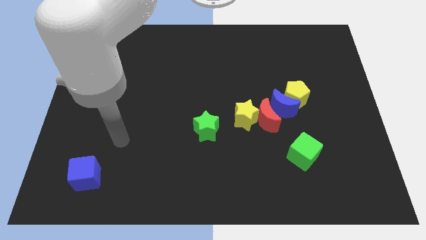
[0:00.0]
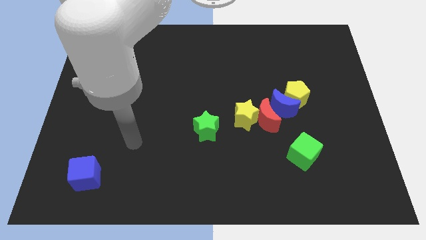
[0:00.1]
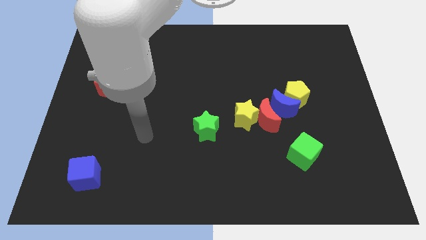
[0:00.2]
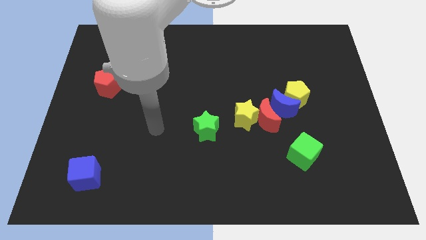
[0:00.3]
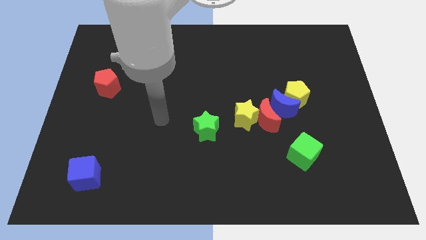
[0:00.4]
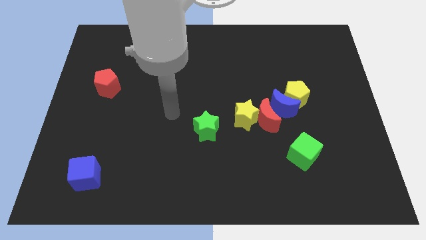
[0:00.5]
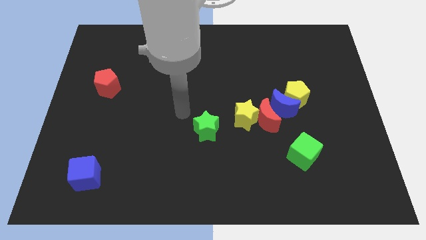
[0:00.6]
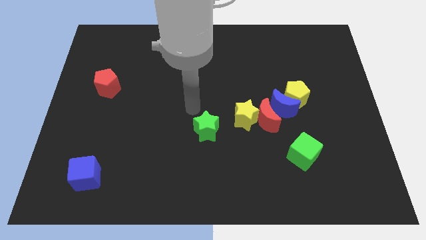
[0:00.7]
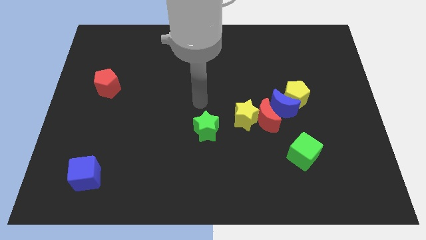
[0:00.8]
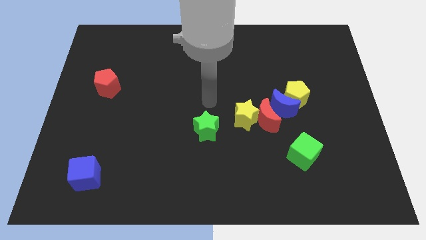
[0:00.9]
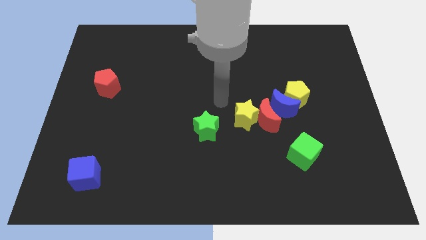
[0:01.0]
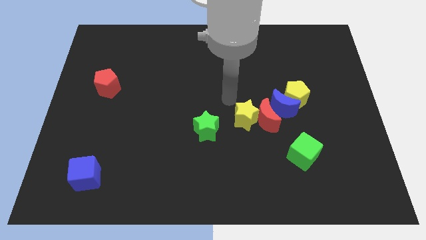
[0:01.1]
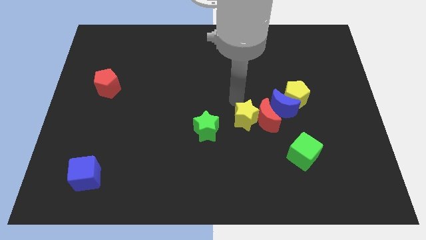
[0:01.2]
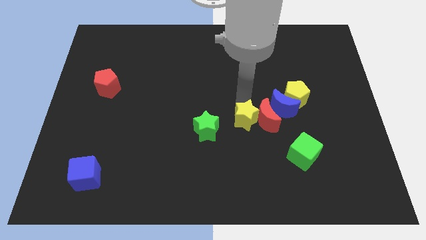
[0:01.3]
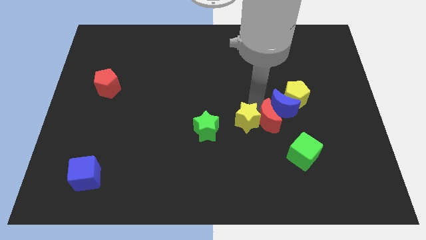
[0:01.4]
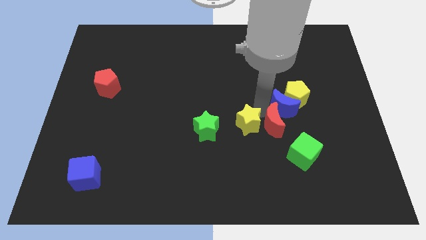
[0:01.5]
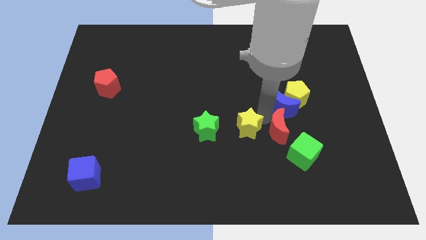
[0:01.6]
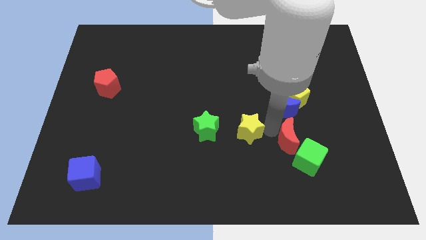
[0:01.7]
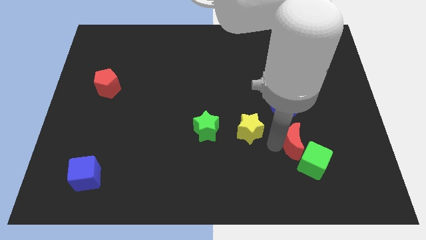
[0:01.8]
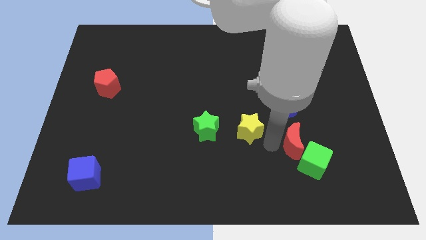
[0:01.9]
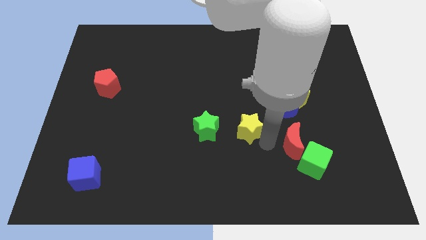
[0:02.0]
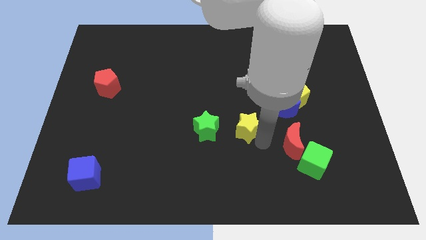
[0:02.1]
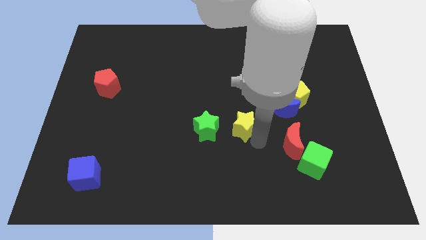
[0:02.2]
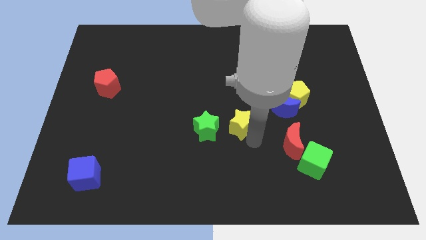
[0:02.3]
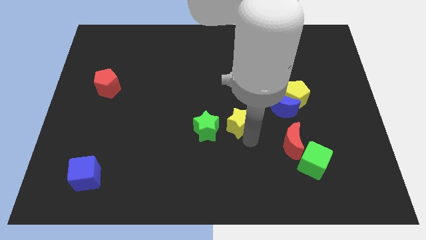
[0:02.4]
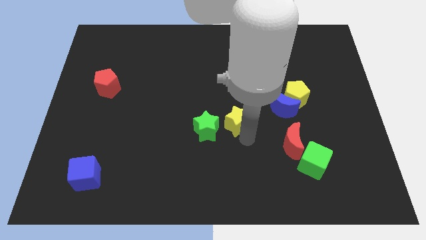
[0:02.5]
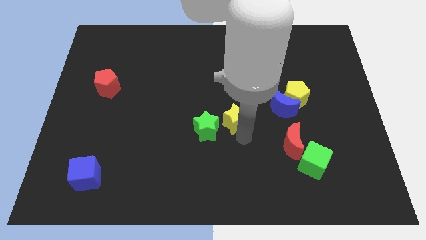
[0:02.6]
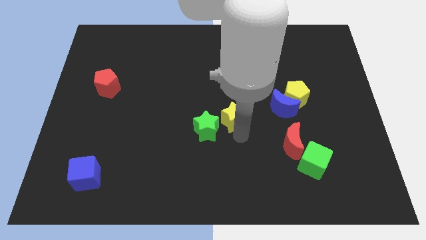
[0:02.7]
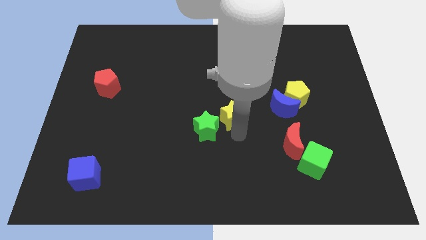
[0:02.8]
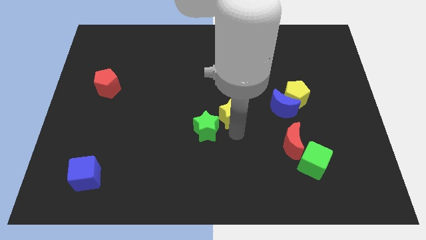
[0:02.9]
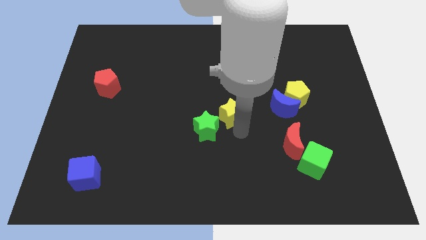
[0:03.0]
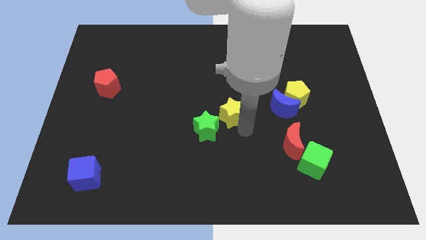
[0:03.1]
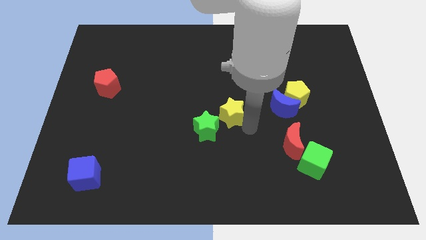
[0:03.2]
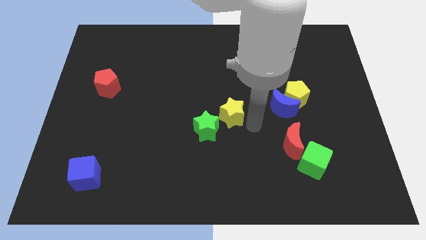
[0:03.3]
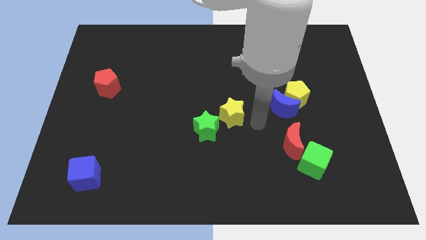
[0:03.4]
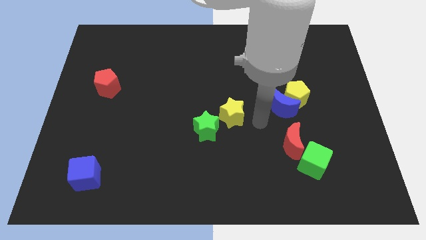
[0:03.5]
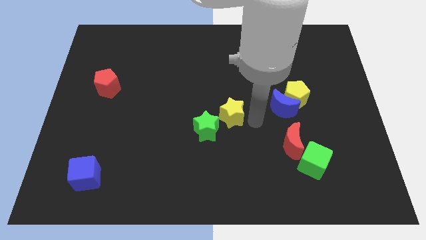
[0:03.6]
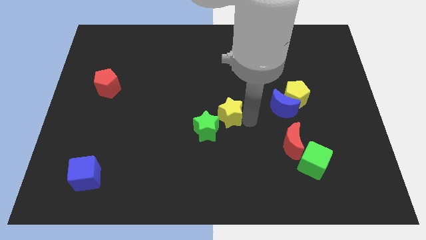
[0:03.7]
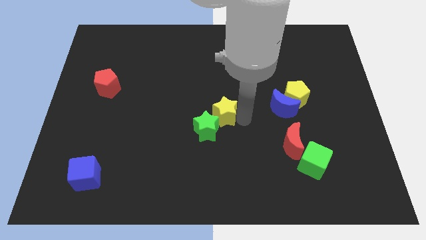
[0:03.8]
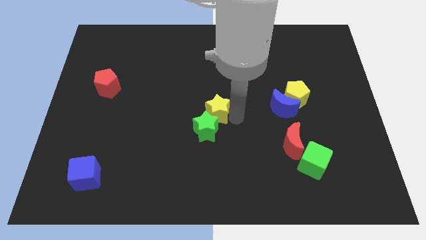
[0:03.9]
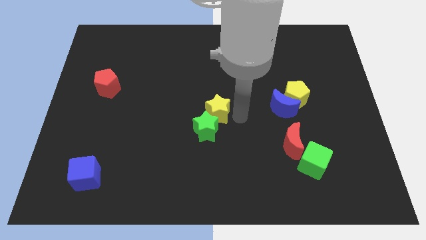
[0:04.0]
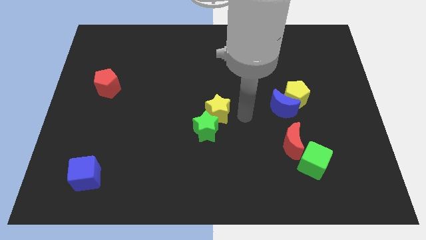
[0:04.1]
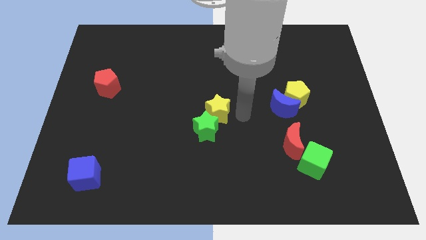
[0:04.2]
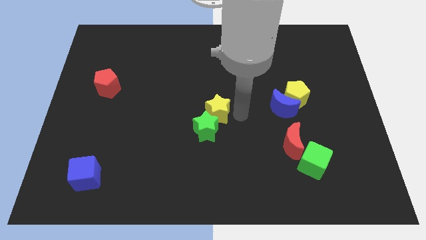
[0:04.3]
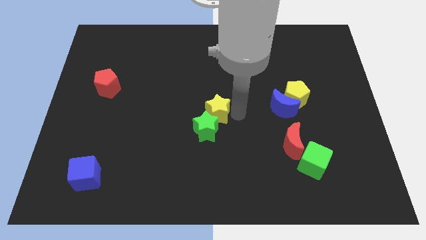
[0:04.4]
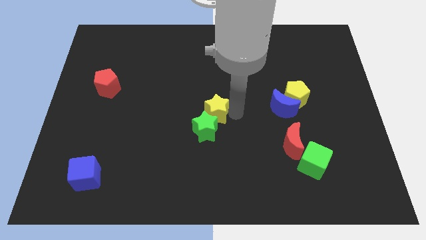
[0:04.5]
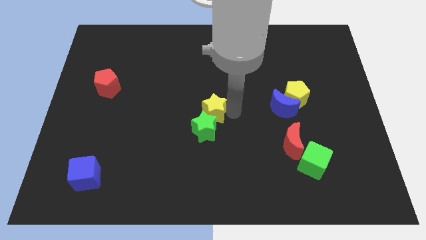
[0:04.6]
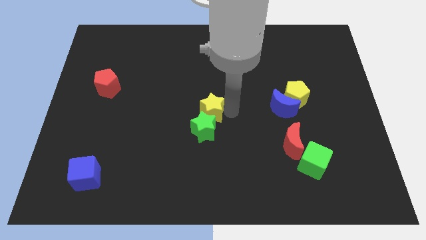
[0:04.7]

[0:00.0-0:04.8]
put the yellow star to the top left side of the green star

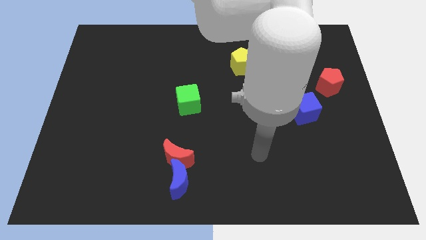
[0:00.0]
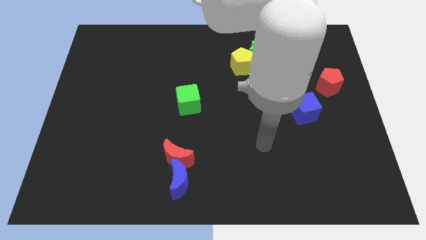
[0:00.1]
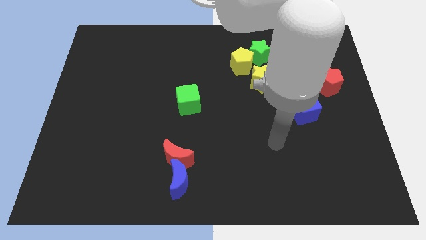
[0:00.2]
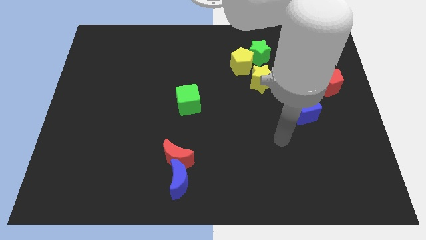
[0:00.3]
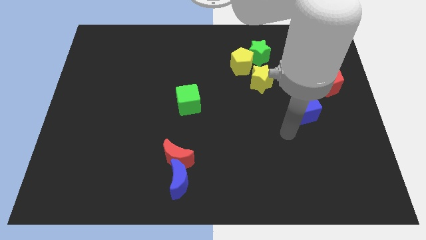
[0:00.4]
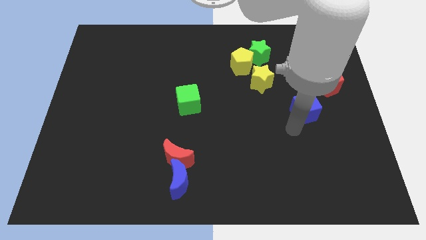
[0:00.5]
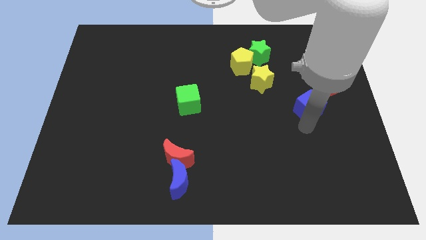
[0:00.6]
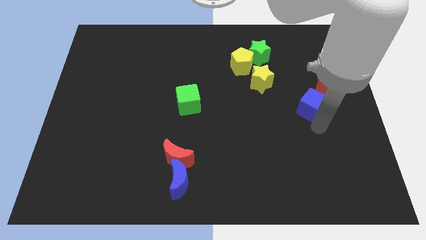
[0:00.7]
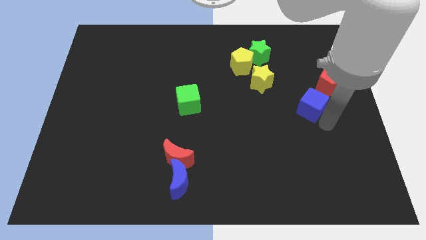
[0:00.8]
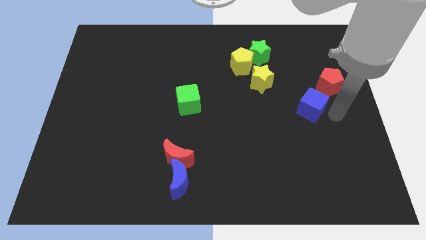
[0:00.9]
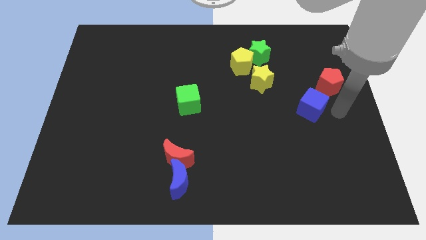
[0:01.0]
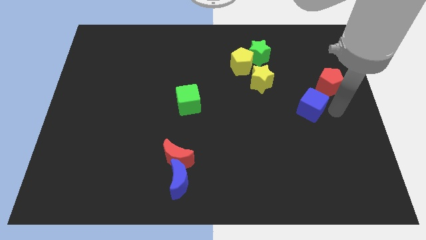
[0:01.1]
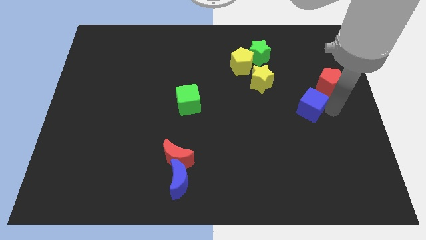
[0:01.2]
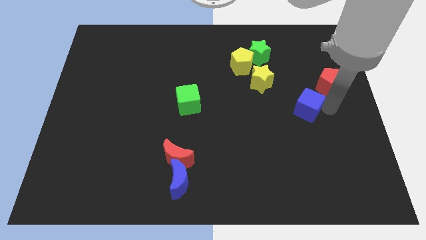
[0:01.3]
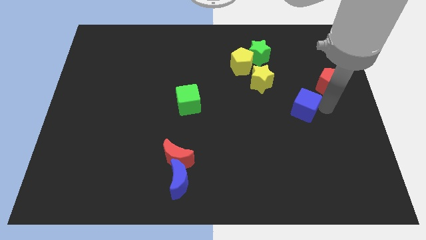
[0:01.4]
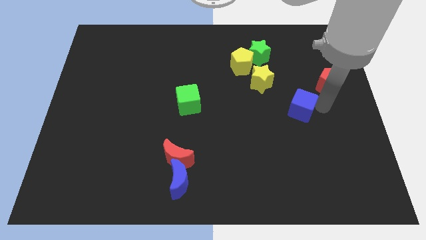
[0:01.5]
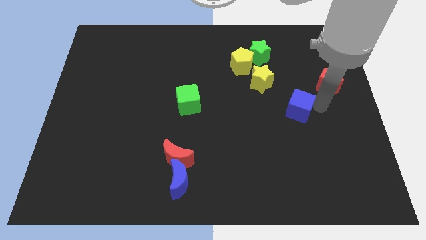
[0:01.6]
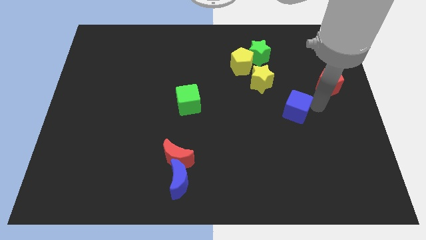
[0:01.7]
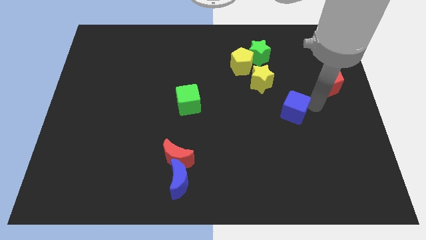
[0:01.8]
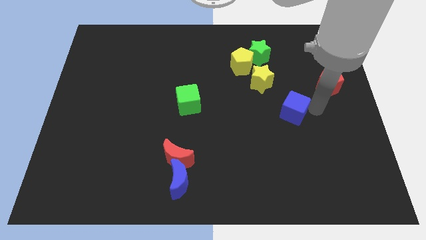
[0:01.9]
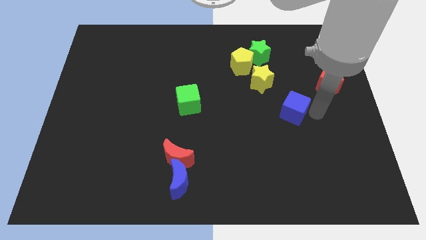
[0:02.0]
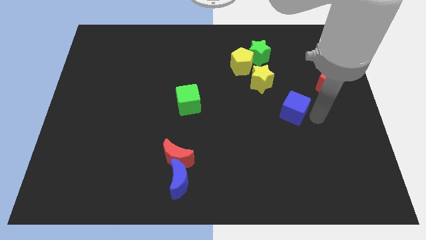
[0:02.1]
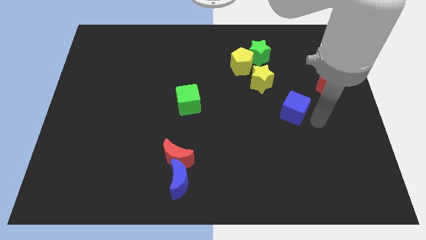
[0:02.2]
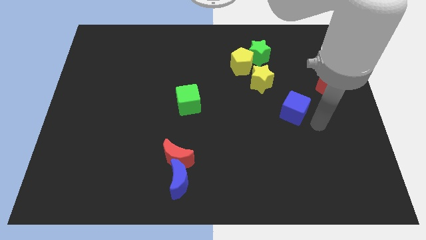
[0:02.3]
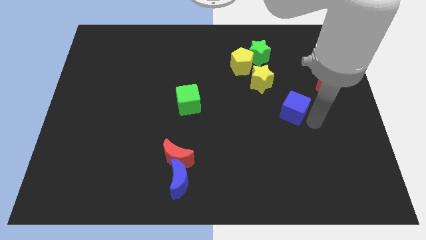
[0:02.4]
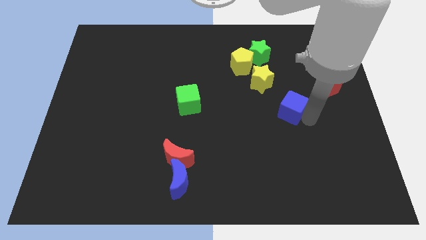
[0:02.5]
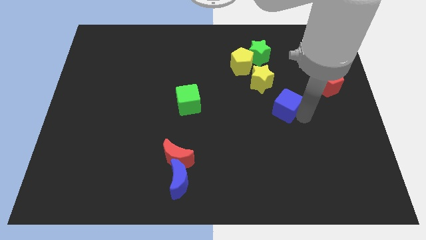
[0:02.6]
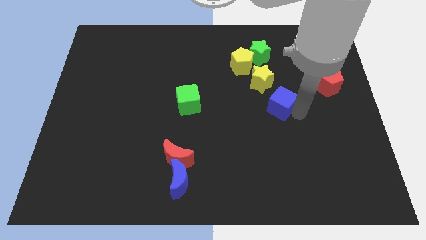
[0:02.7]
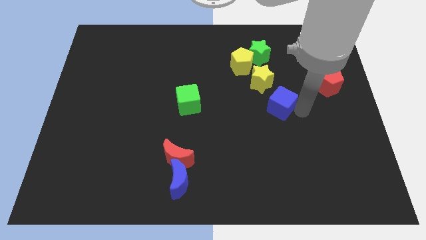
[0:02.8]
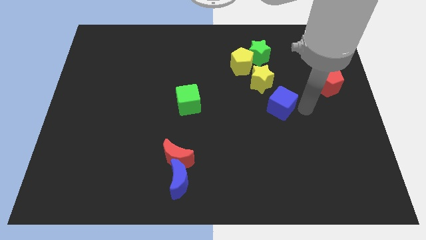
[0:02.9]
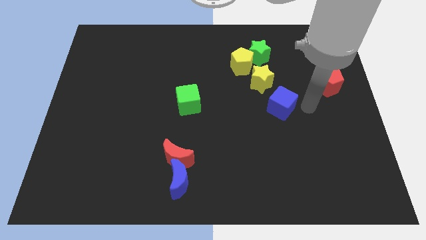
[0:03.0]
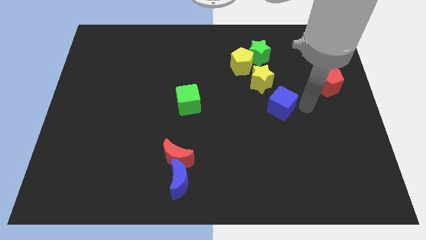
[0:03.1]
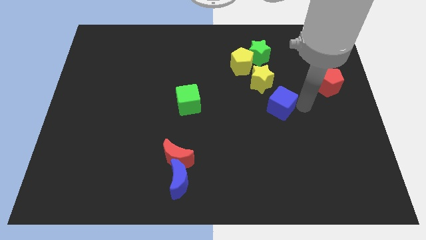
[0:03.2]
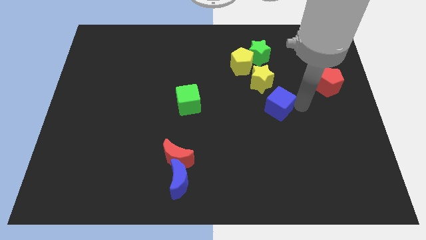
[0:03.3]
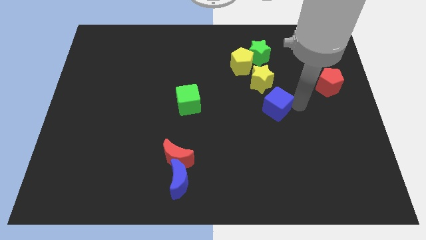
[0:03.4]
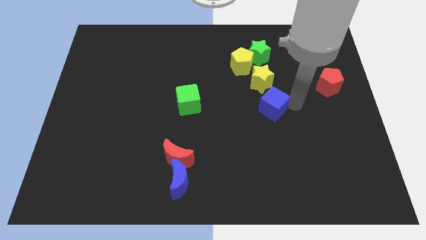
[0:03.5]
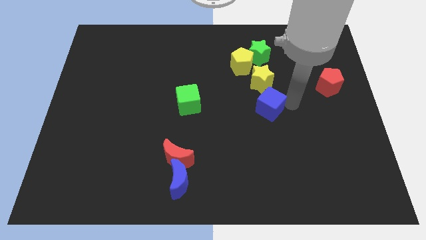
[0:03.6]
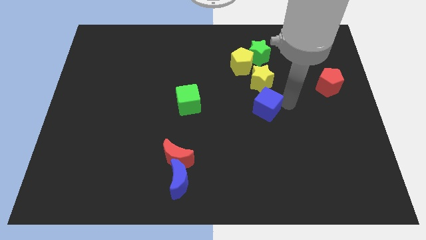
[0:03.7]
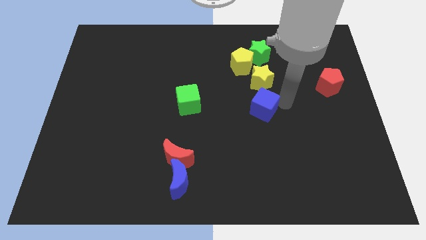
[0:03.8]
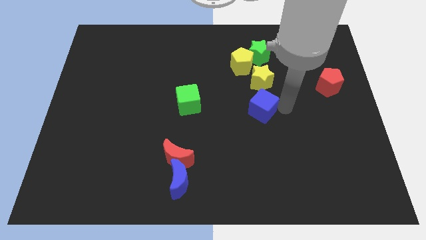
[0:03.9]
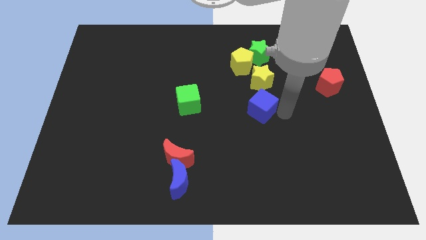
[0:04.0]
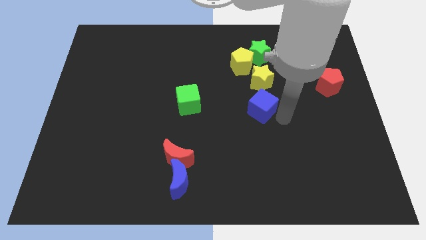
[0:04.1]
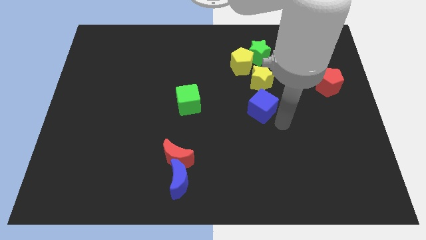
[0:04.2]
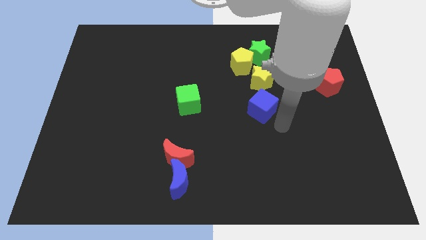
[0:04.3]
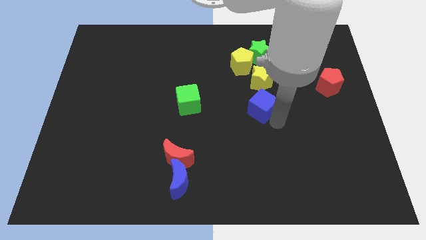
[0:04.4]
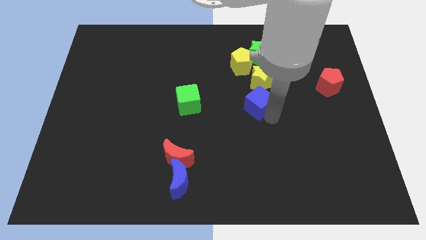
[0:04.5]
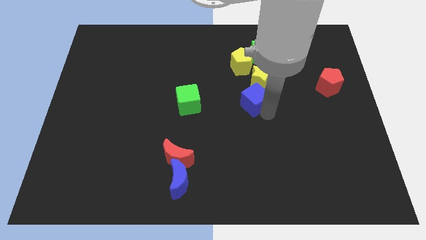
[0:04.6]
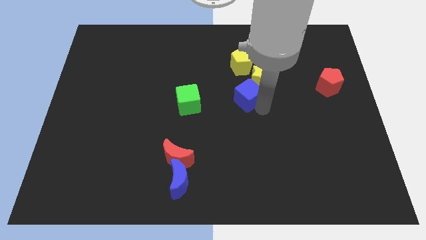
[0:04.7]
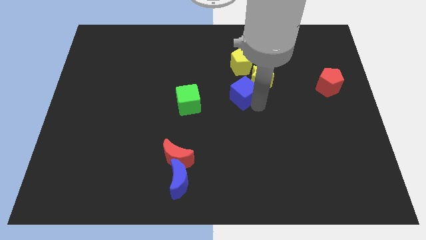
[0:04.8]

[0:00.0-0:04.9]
put the blue cube just left of the yellow star
